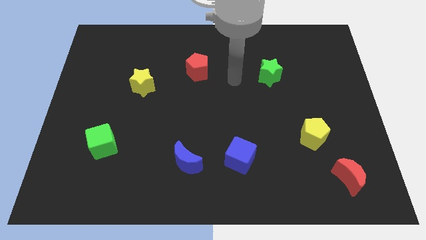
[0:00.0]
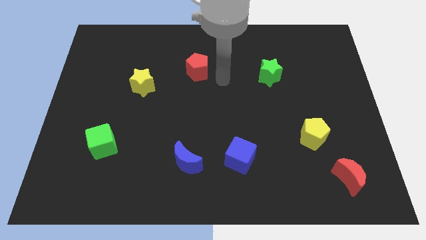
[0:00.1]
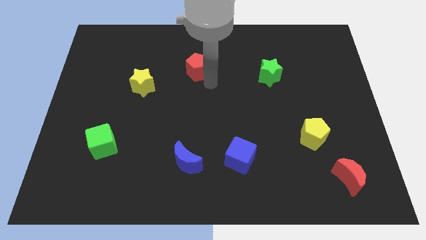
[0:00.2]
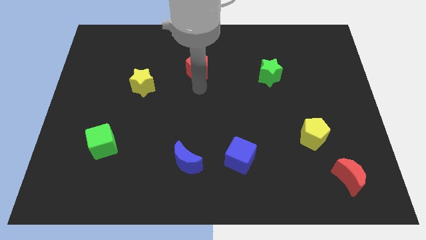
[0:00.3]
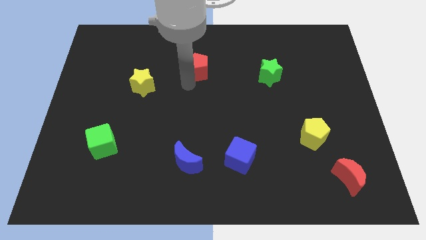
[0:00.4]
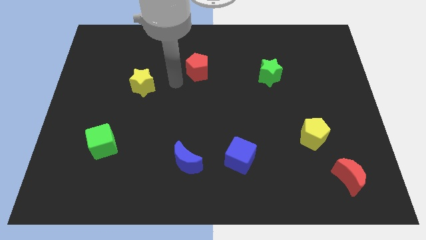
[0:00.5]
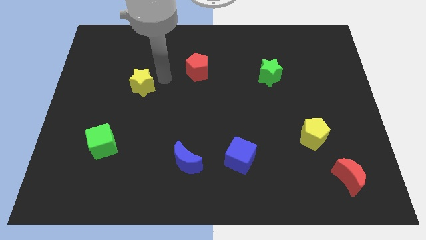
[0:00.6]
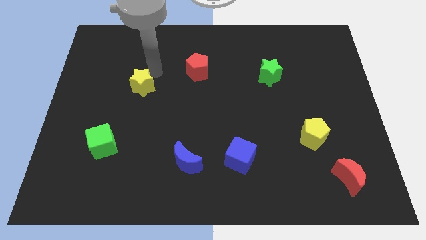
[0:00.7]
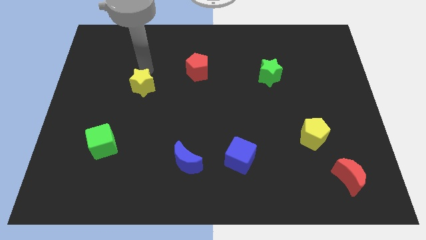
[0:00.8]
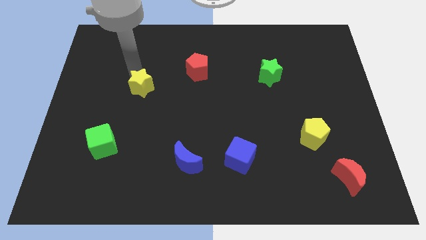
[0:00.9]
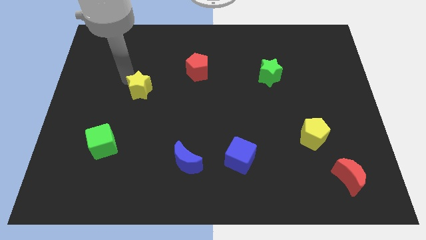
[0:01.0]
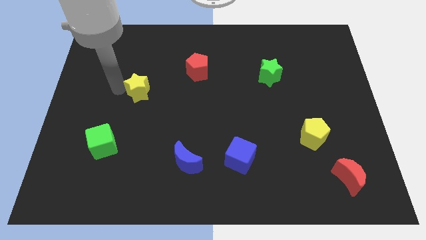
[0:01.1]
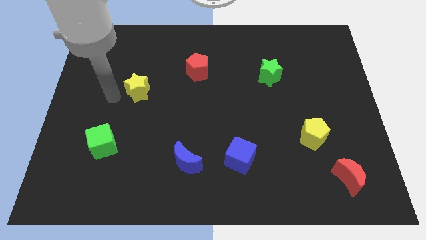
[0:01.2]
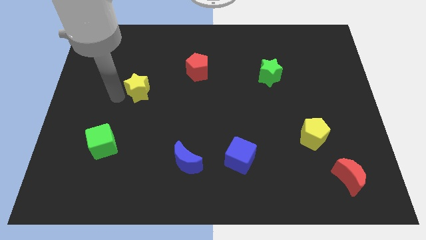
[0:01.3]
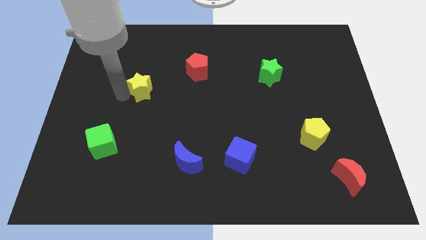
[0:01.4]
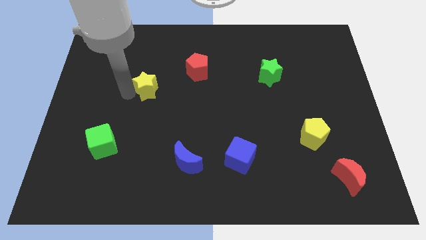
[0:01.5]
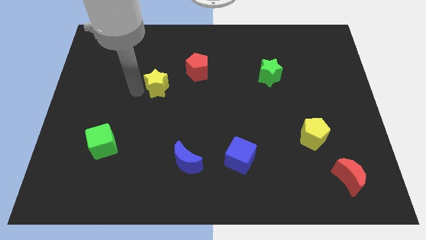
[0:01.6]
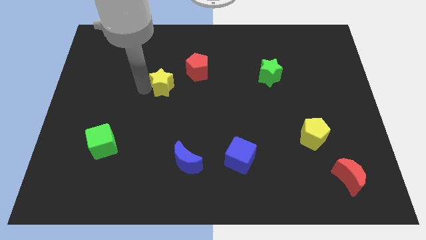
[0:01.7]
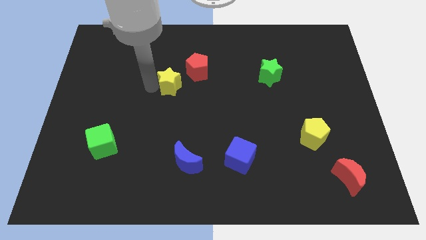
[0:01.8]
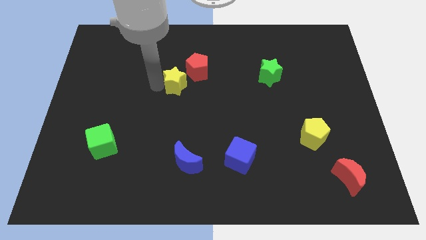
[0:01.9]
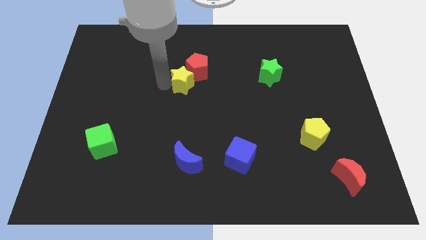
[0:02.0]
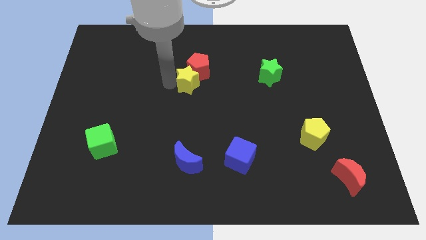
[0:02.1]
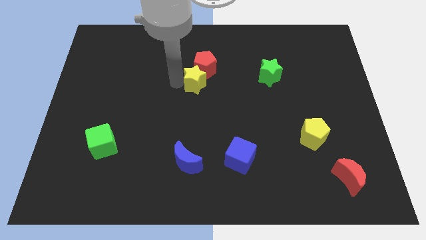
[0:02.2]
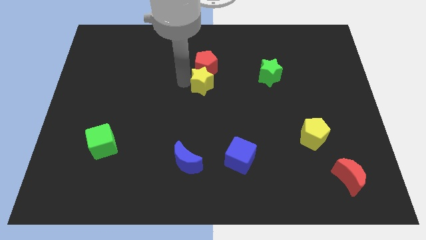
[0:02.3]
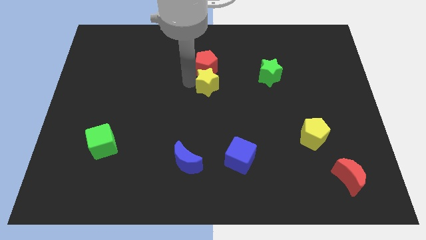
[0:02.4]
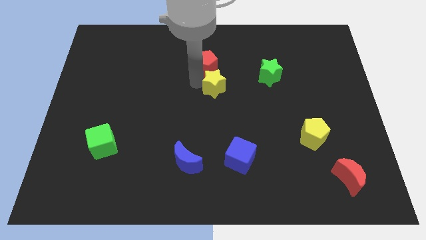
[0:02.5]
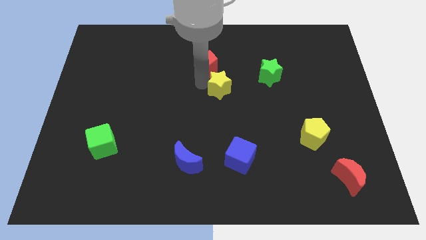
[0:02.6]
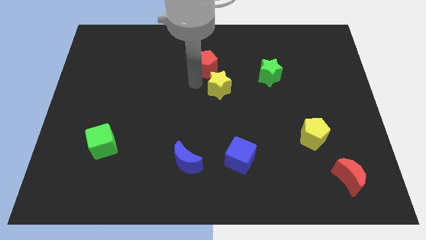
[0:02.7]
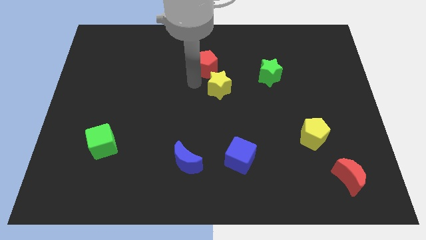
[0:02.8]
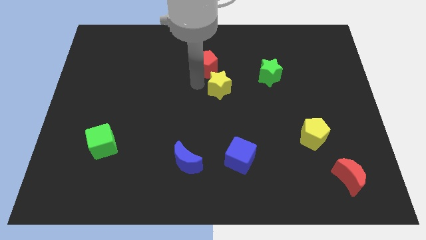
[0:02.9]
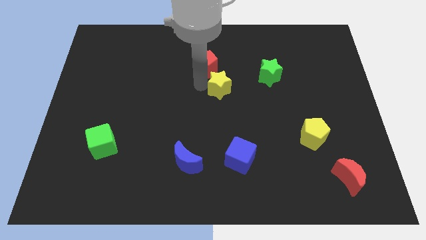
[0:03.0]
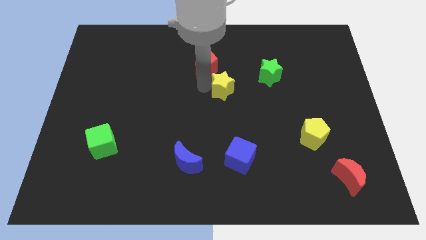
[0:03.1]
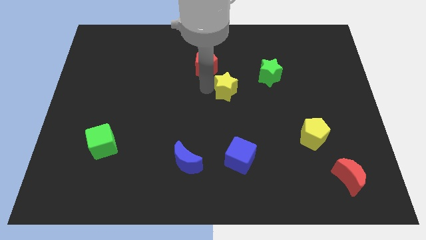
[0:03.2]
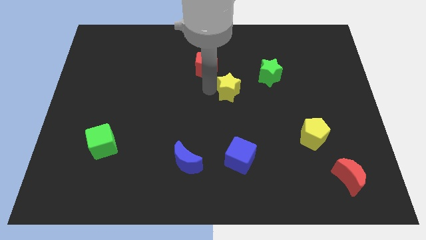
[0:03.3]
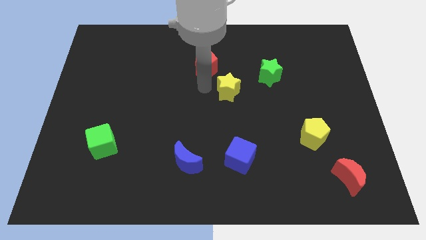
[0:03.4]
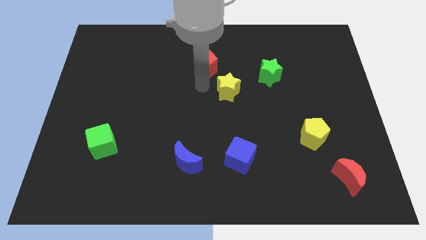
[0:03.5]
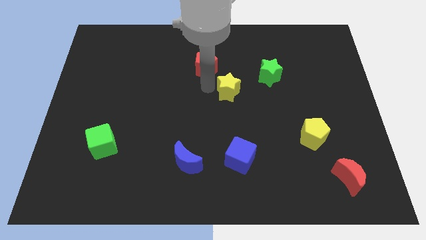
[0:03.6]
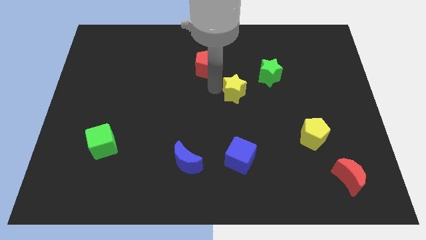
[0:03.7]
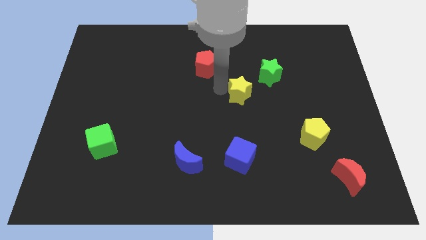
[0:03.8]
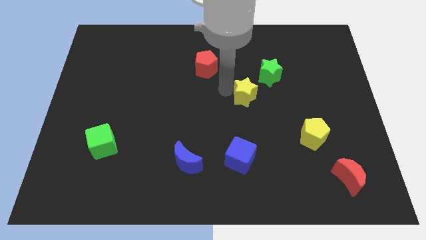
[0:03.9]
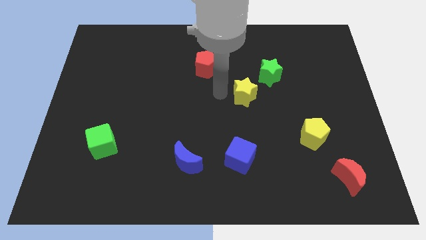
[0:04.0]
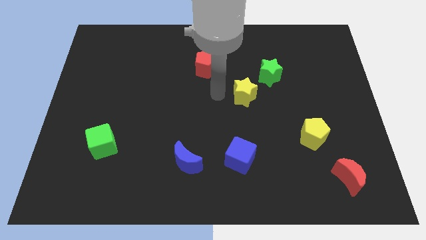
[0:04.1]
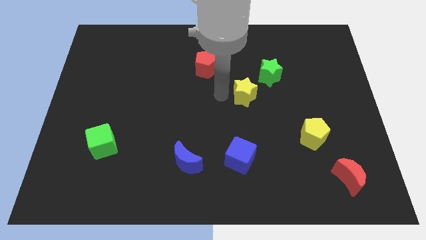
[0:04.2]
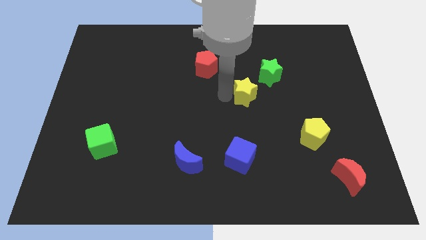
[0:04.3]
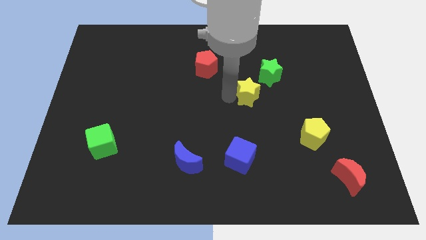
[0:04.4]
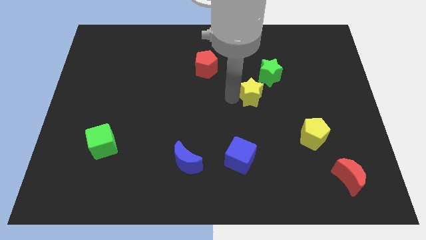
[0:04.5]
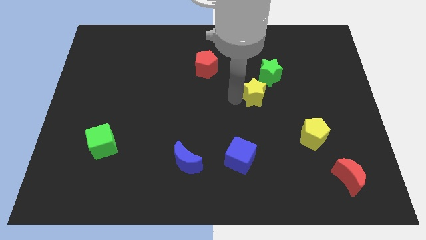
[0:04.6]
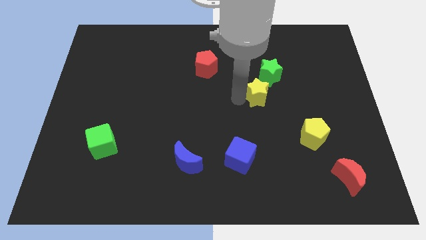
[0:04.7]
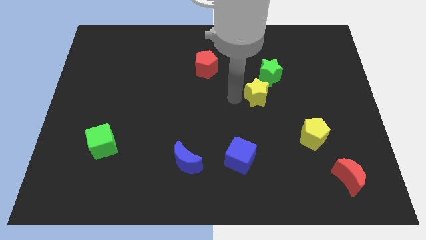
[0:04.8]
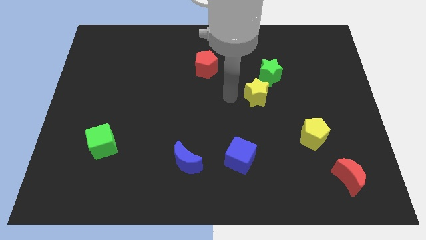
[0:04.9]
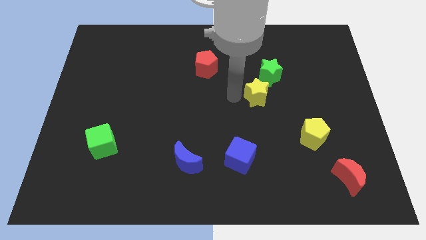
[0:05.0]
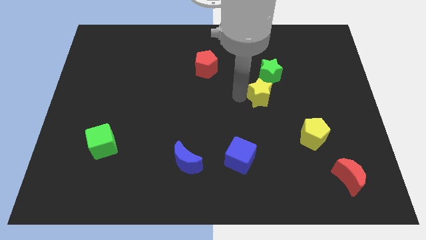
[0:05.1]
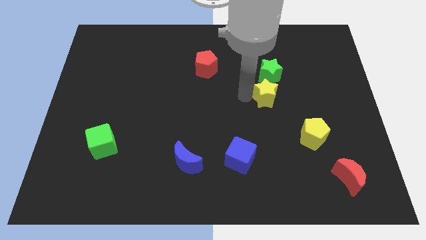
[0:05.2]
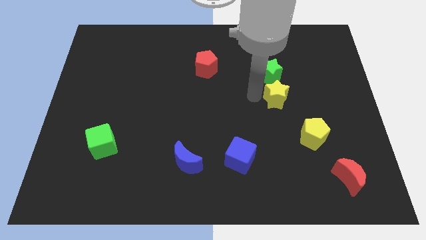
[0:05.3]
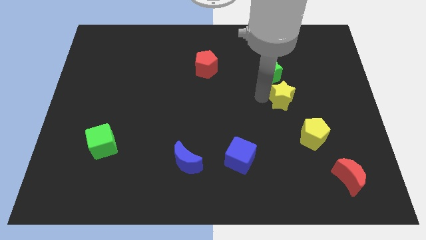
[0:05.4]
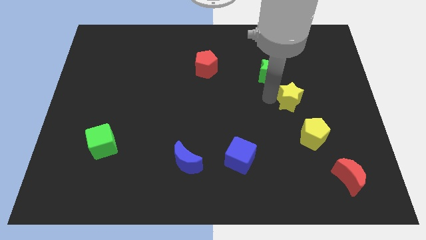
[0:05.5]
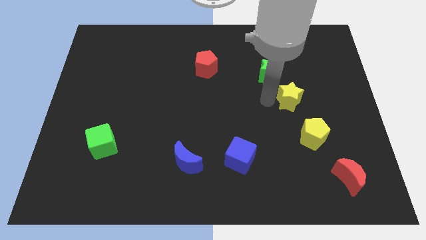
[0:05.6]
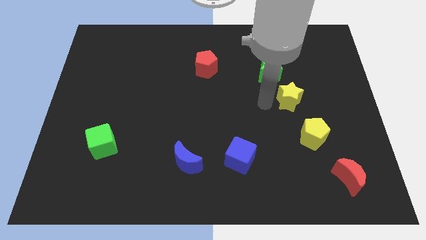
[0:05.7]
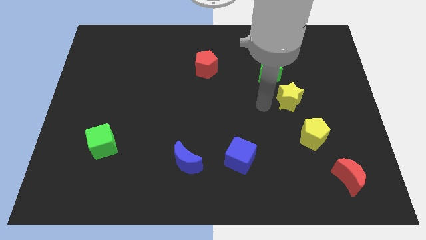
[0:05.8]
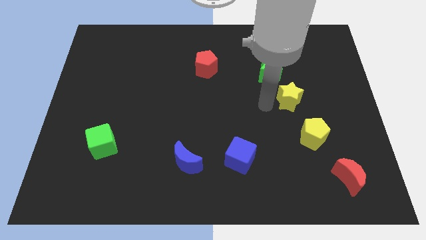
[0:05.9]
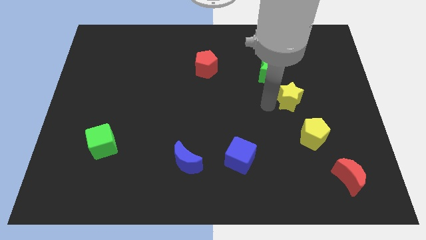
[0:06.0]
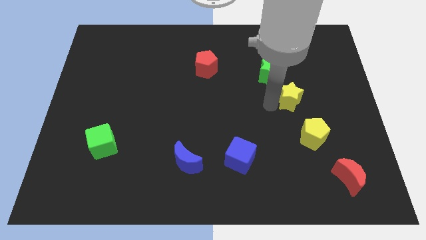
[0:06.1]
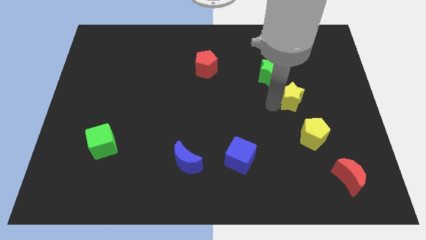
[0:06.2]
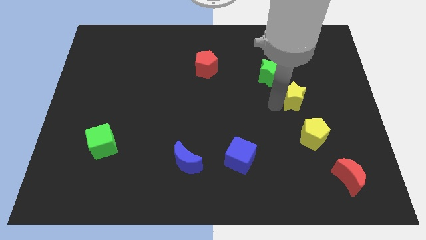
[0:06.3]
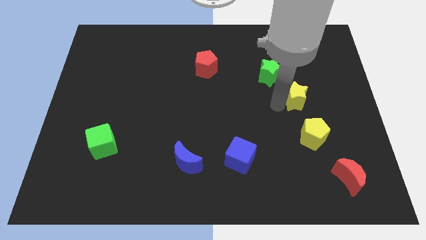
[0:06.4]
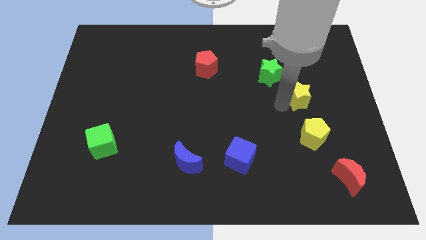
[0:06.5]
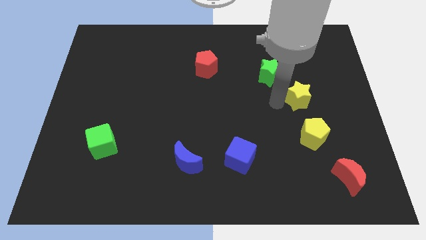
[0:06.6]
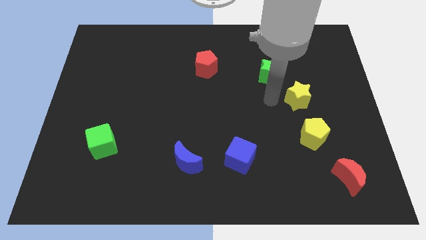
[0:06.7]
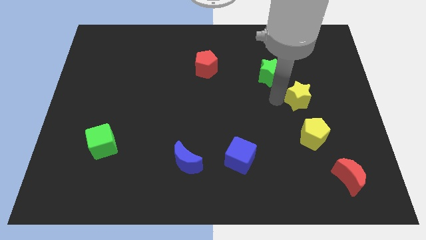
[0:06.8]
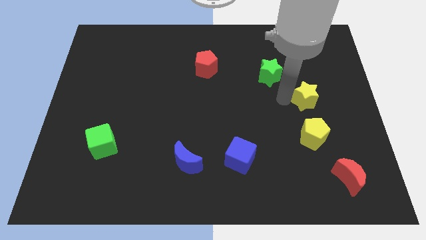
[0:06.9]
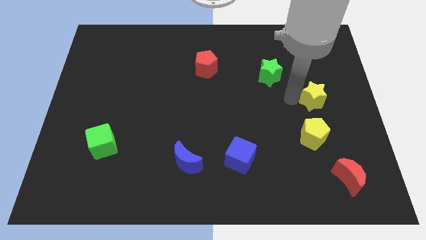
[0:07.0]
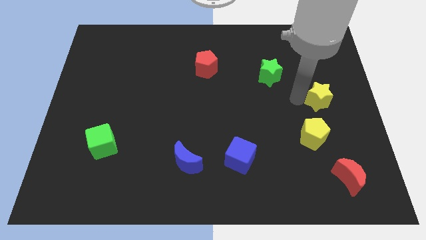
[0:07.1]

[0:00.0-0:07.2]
slide the yellow star to the center right
